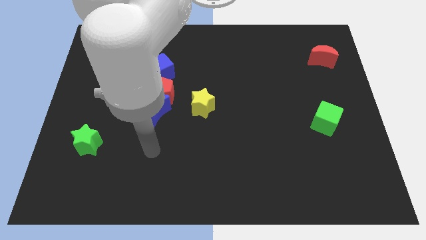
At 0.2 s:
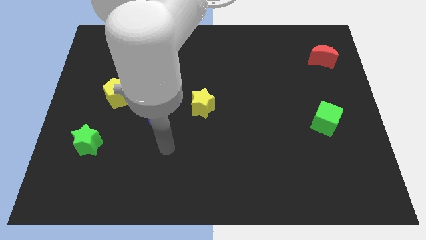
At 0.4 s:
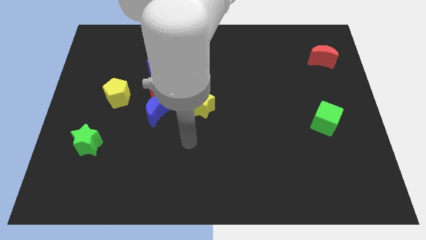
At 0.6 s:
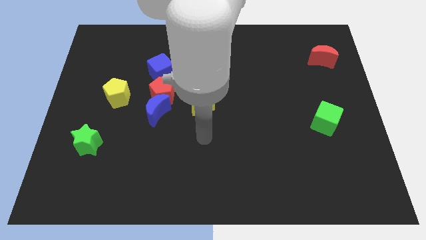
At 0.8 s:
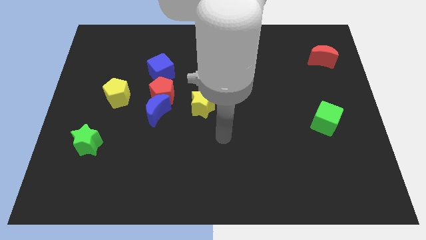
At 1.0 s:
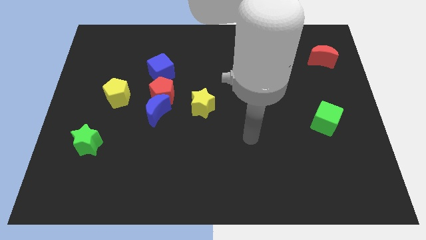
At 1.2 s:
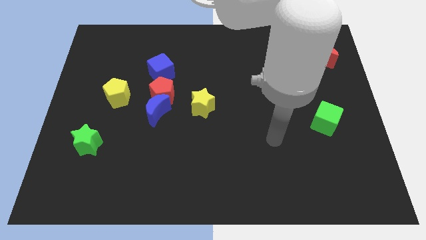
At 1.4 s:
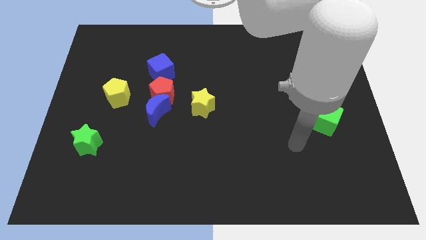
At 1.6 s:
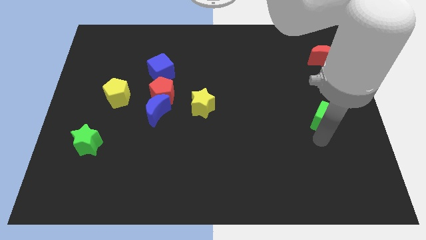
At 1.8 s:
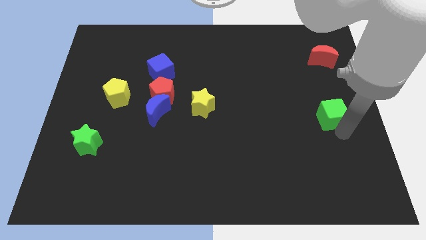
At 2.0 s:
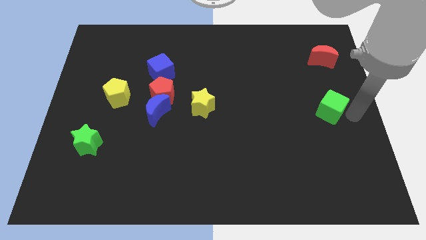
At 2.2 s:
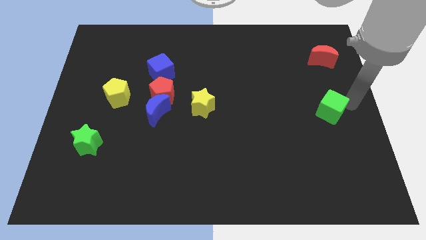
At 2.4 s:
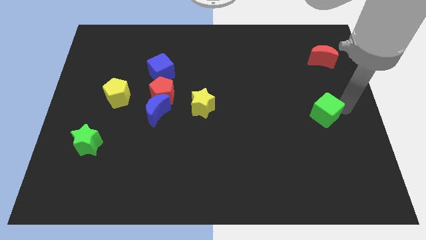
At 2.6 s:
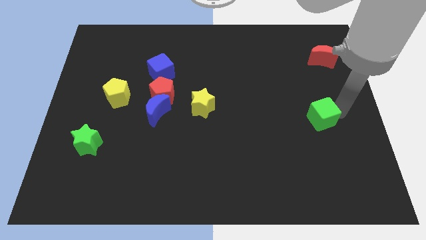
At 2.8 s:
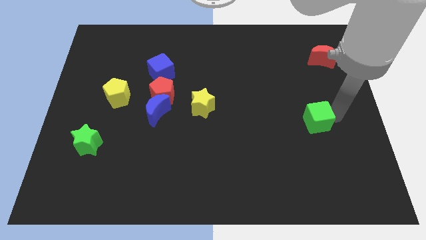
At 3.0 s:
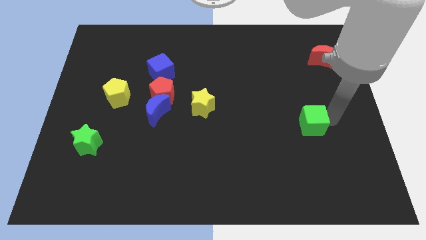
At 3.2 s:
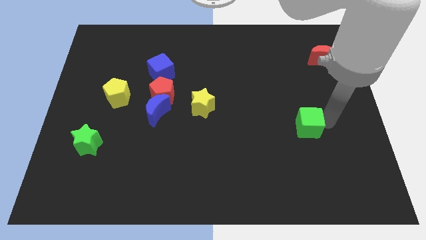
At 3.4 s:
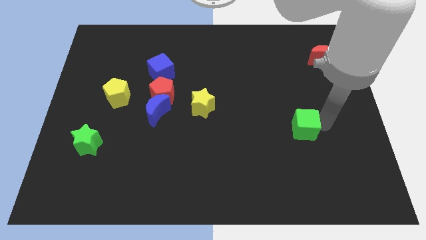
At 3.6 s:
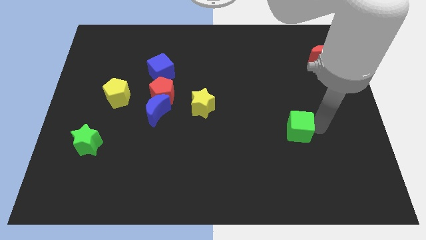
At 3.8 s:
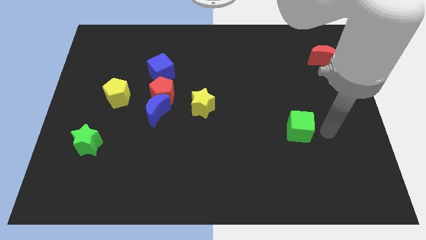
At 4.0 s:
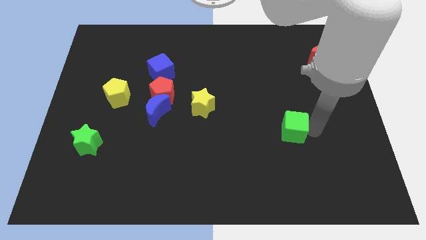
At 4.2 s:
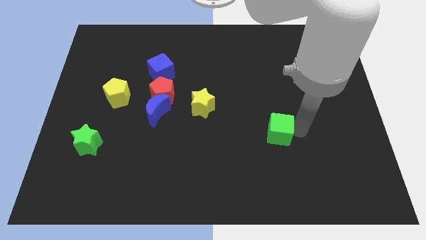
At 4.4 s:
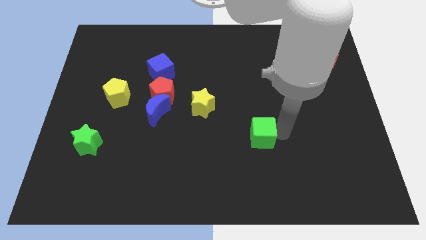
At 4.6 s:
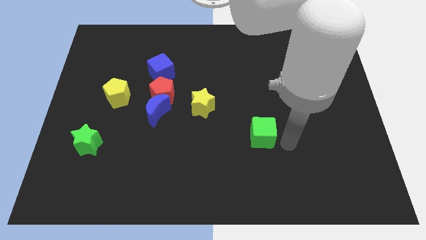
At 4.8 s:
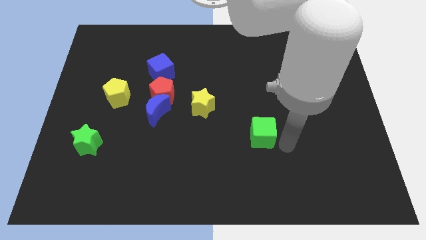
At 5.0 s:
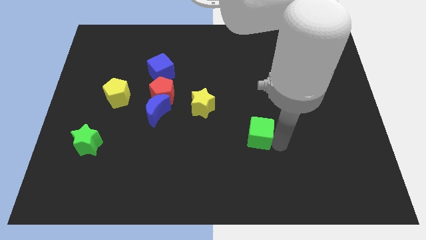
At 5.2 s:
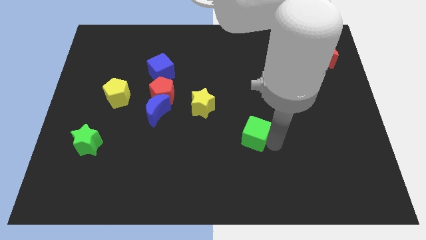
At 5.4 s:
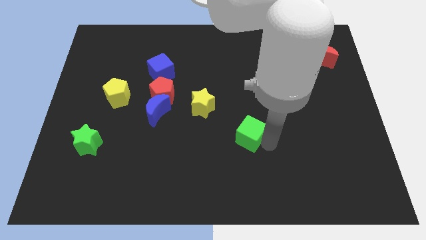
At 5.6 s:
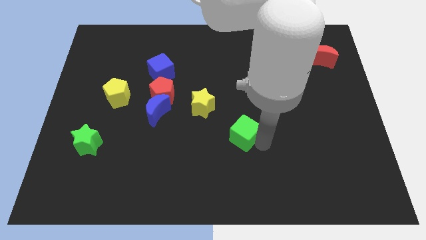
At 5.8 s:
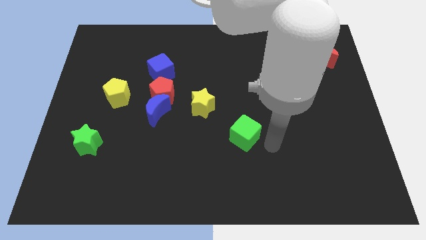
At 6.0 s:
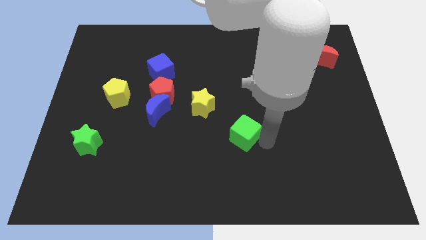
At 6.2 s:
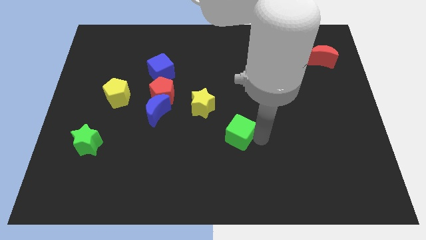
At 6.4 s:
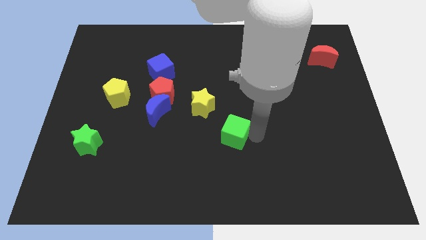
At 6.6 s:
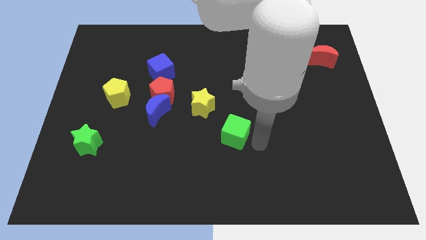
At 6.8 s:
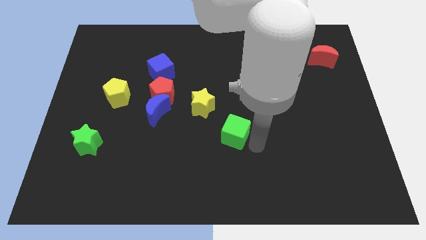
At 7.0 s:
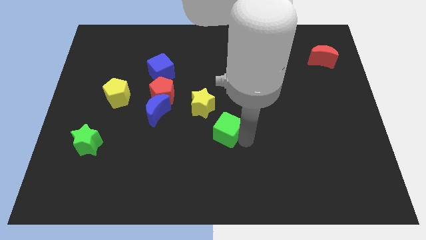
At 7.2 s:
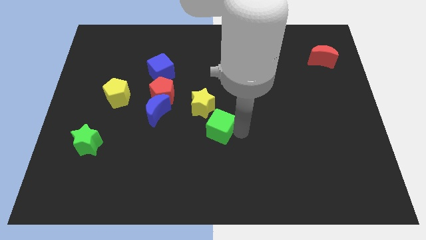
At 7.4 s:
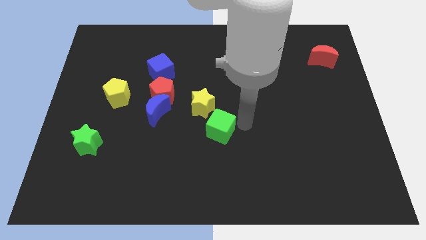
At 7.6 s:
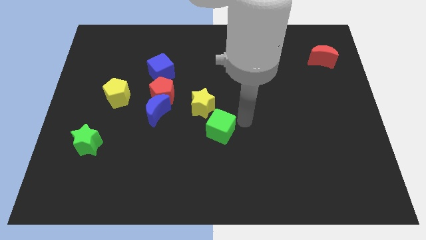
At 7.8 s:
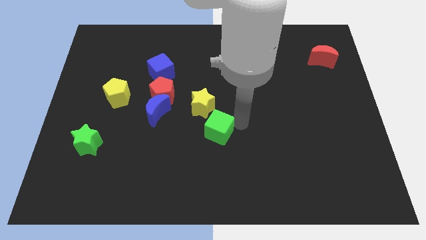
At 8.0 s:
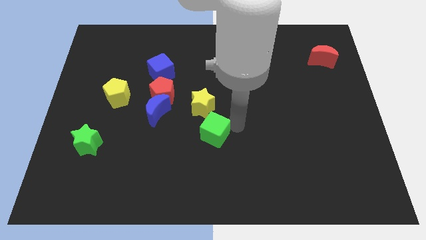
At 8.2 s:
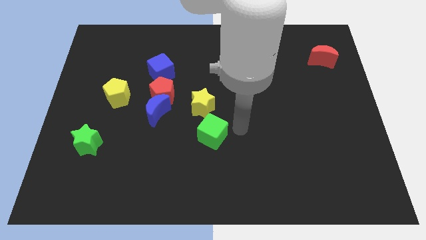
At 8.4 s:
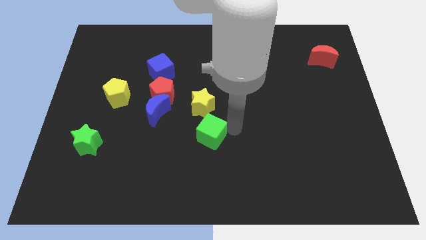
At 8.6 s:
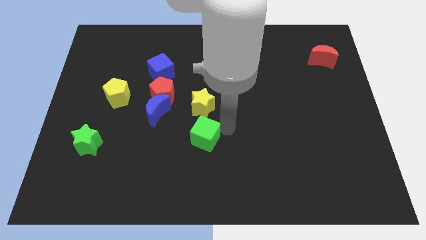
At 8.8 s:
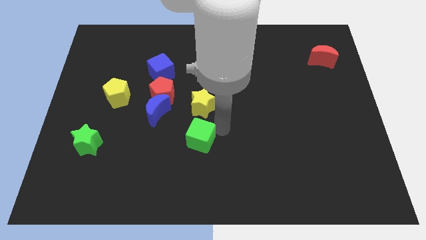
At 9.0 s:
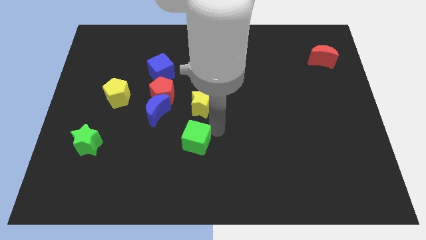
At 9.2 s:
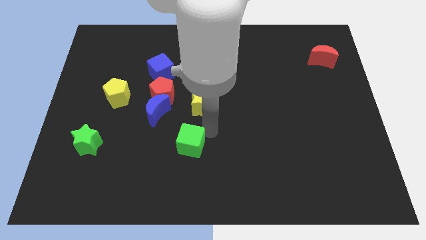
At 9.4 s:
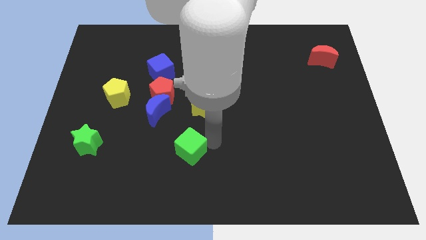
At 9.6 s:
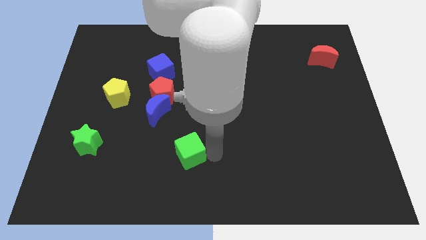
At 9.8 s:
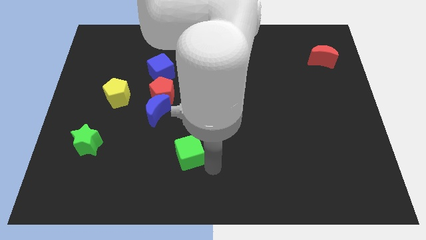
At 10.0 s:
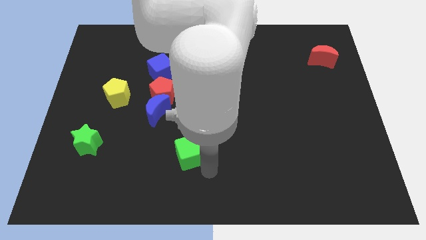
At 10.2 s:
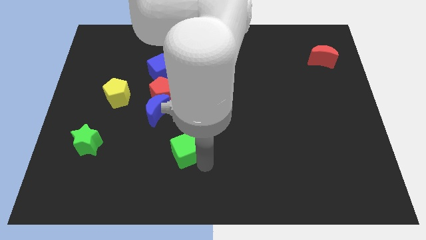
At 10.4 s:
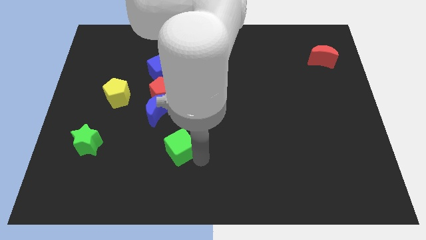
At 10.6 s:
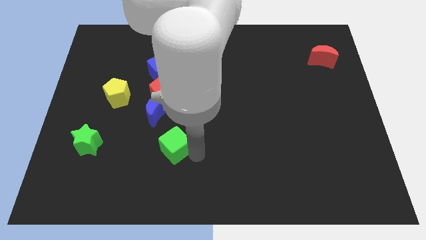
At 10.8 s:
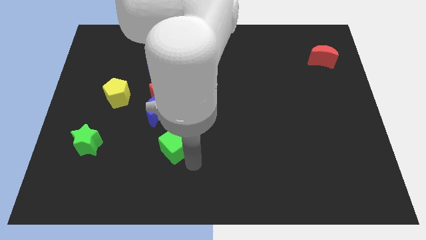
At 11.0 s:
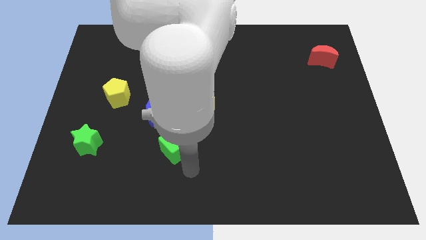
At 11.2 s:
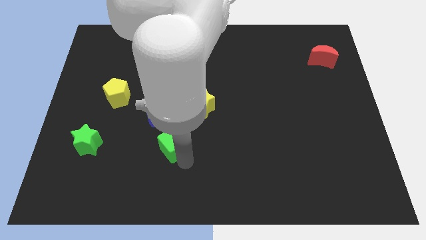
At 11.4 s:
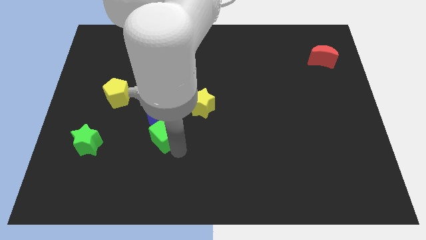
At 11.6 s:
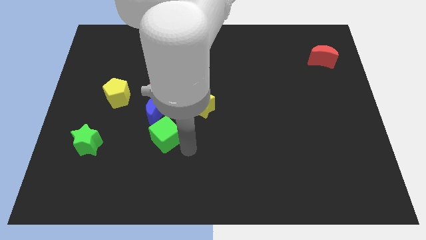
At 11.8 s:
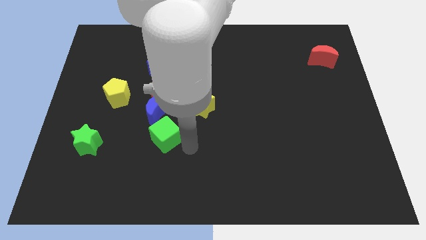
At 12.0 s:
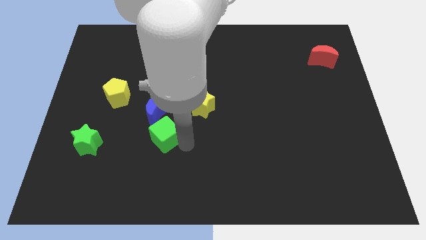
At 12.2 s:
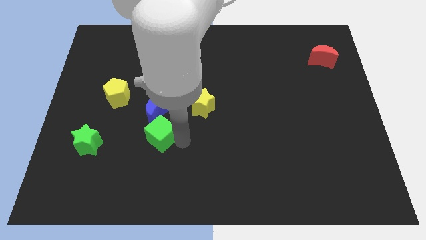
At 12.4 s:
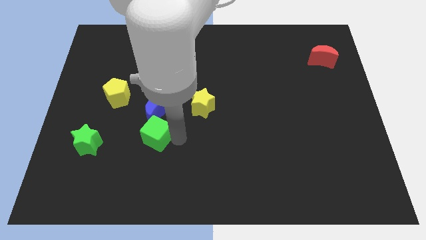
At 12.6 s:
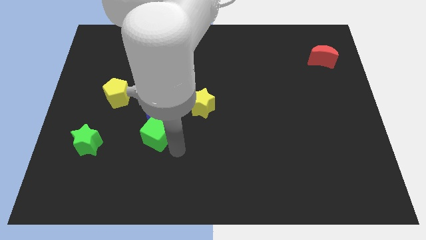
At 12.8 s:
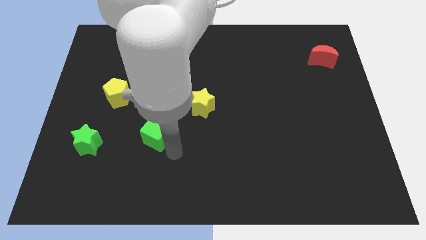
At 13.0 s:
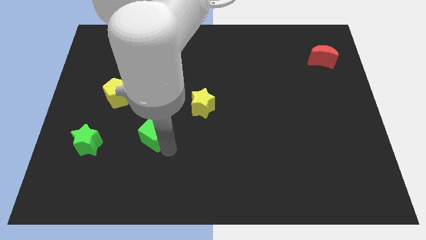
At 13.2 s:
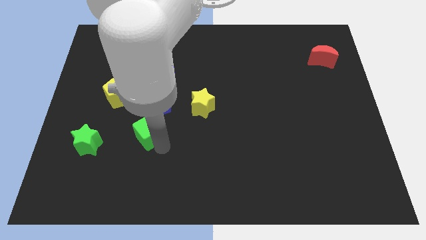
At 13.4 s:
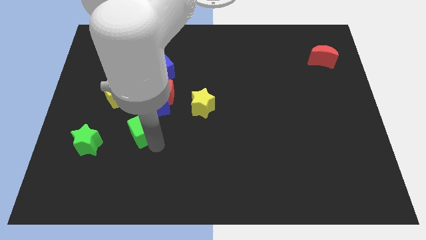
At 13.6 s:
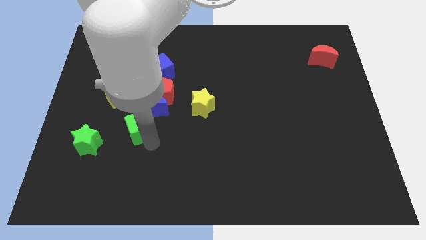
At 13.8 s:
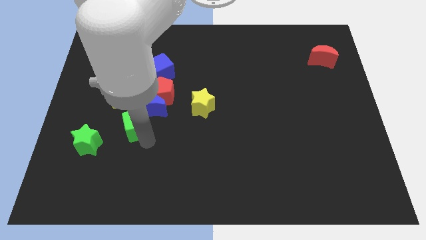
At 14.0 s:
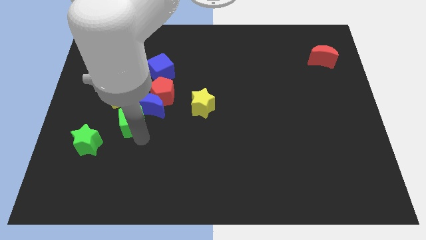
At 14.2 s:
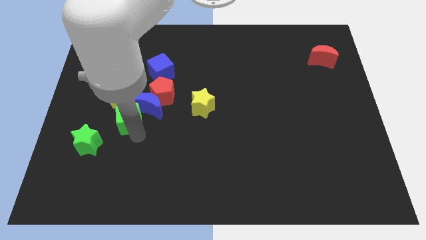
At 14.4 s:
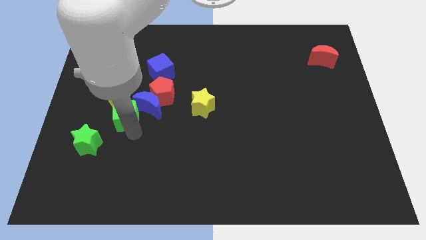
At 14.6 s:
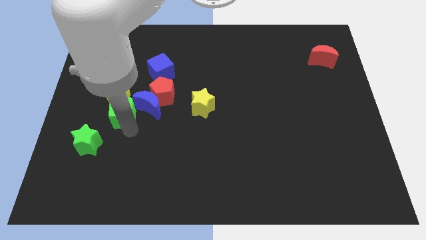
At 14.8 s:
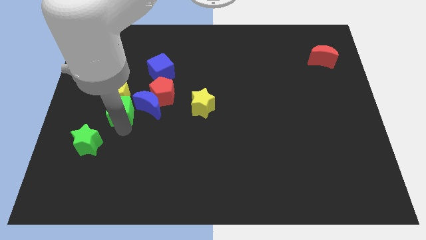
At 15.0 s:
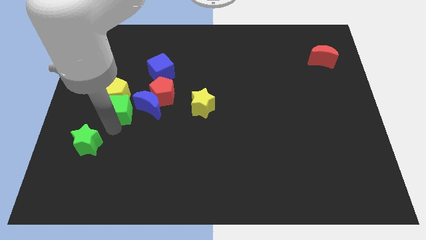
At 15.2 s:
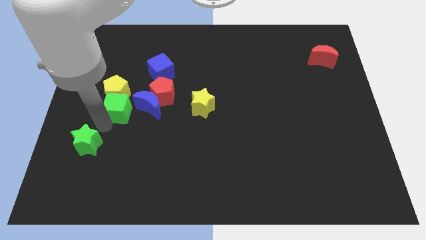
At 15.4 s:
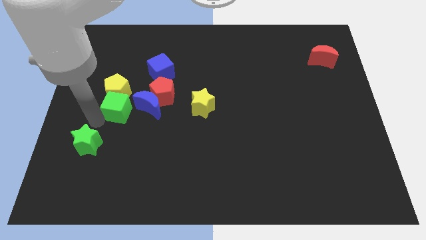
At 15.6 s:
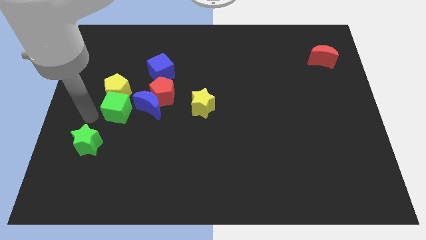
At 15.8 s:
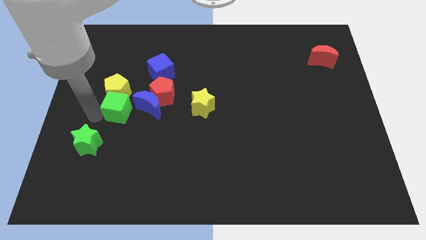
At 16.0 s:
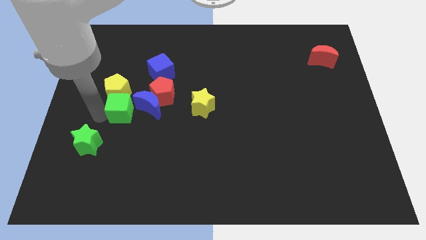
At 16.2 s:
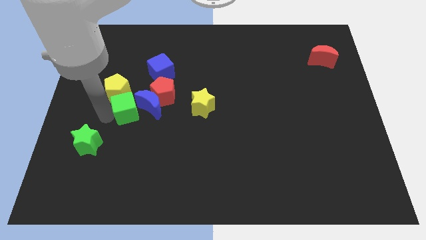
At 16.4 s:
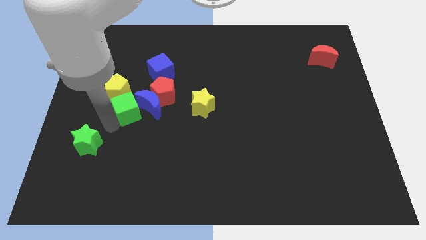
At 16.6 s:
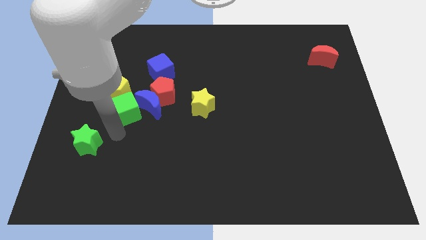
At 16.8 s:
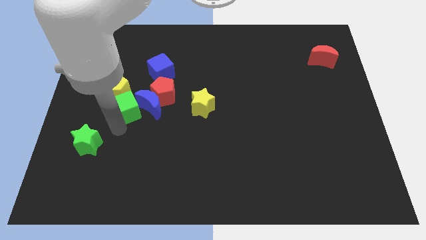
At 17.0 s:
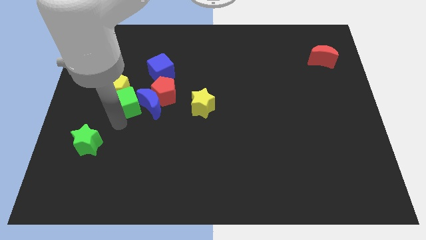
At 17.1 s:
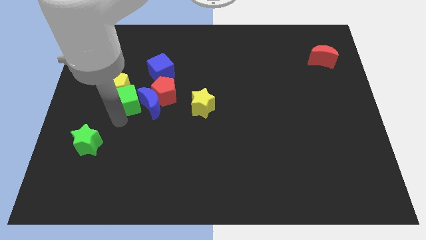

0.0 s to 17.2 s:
move the green cube diagonally down and to the left of the blue cube
